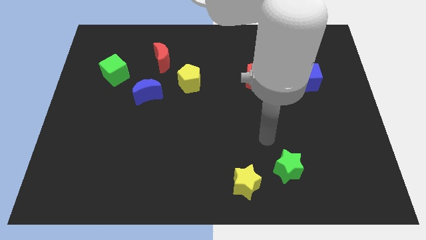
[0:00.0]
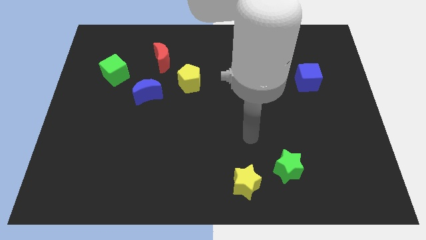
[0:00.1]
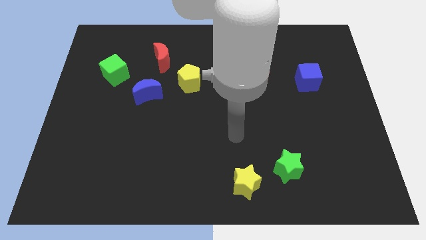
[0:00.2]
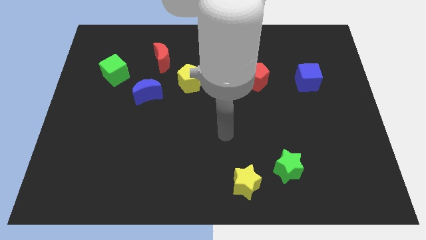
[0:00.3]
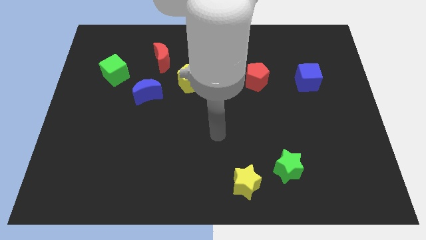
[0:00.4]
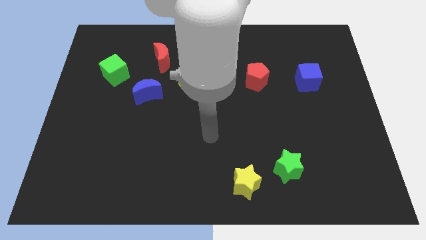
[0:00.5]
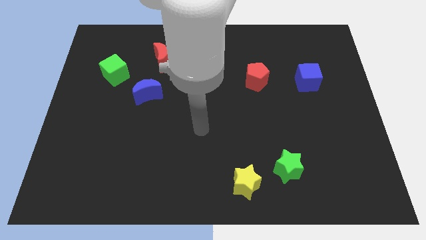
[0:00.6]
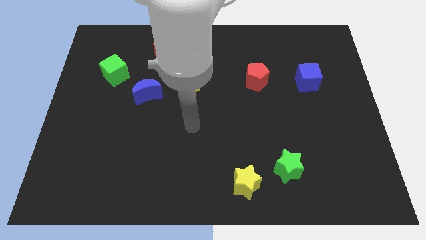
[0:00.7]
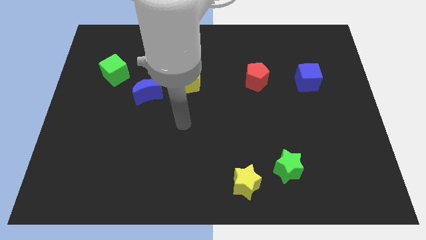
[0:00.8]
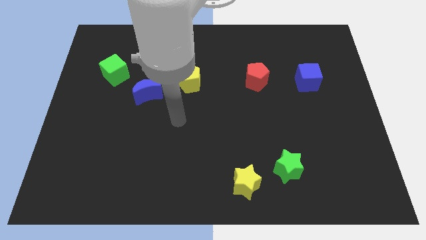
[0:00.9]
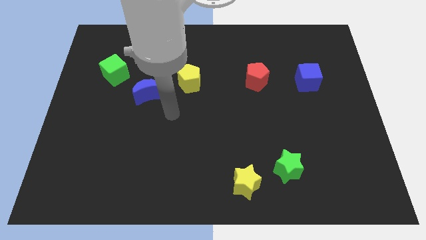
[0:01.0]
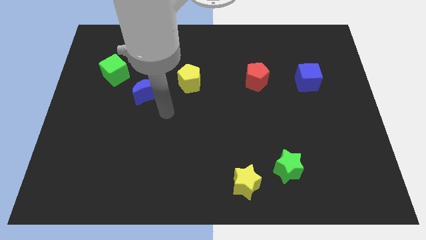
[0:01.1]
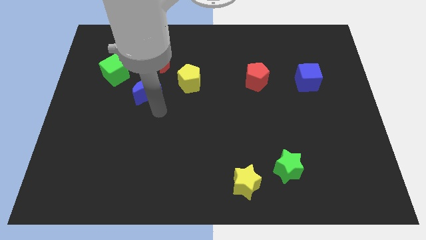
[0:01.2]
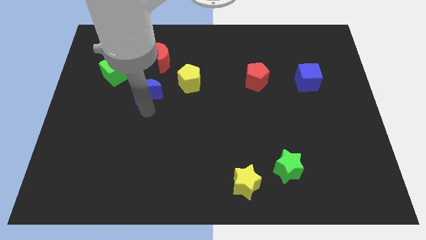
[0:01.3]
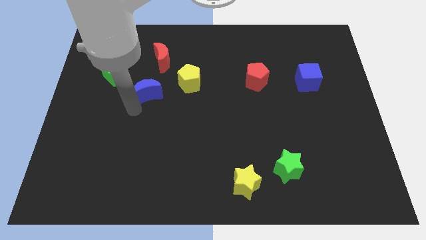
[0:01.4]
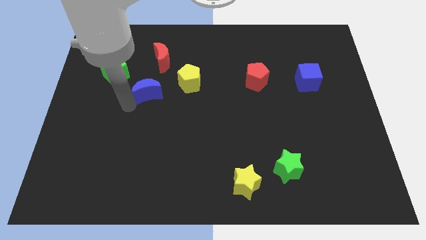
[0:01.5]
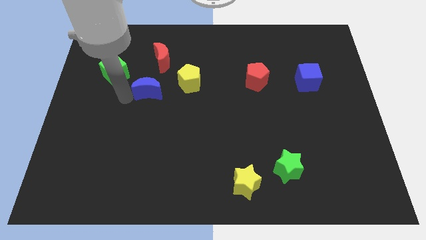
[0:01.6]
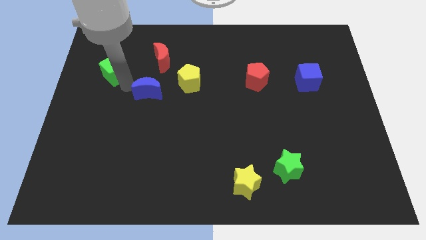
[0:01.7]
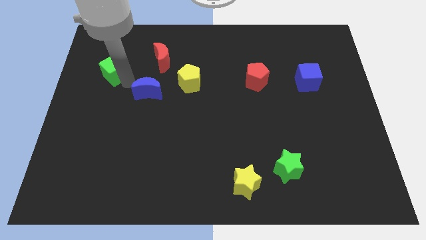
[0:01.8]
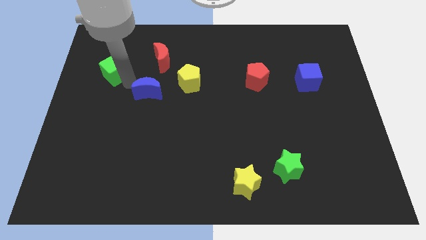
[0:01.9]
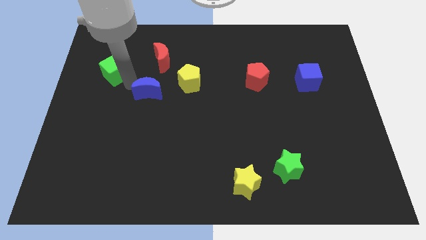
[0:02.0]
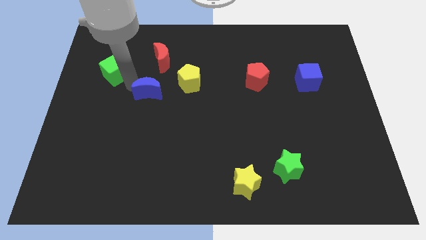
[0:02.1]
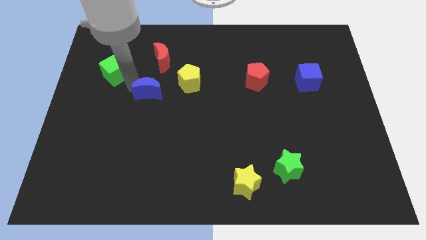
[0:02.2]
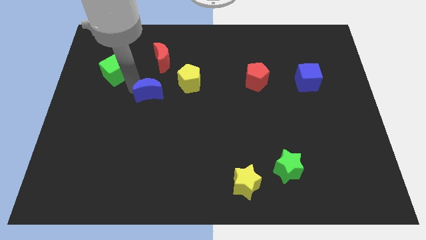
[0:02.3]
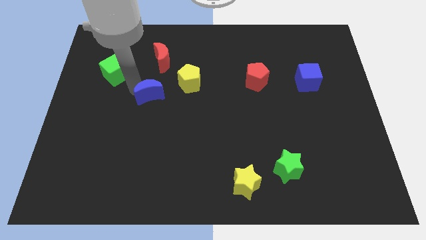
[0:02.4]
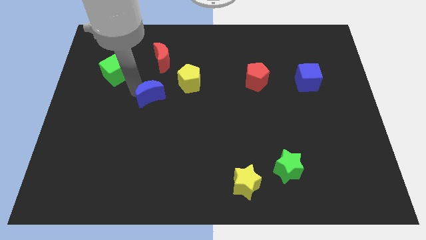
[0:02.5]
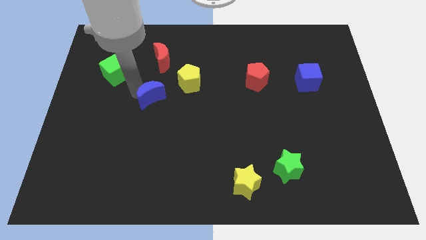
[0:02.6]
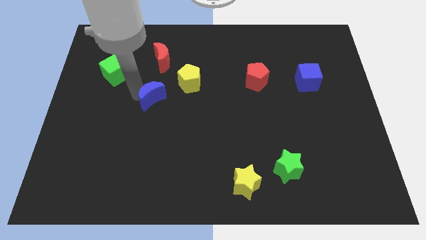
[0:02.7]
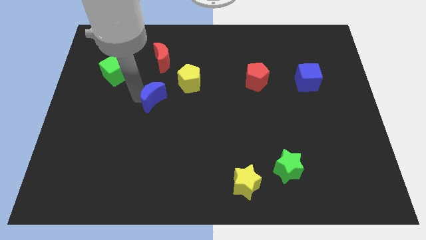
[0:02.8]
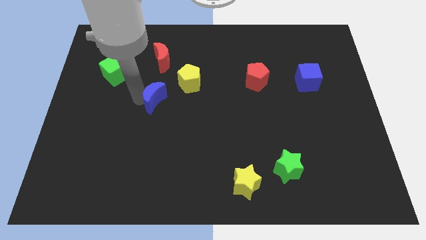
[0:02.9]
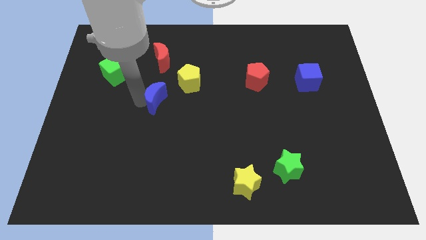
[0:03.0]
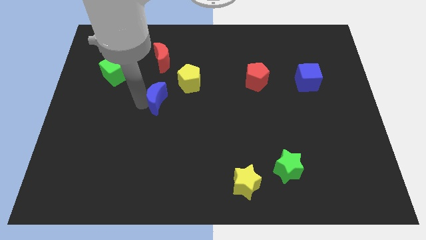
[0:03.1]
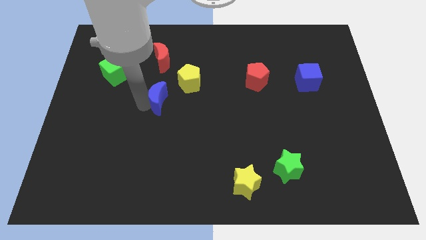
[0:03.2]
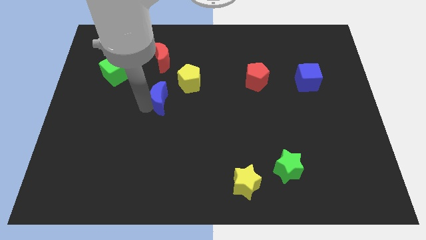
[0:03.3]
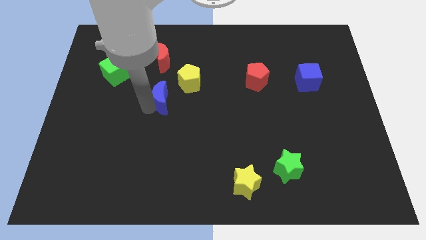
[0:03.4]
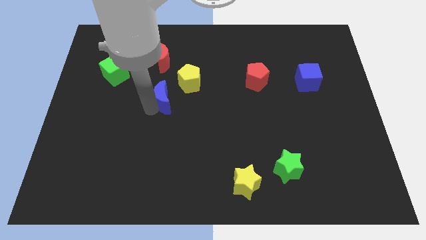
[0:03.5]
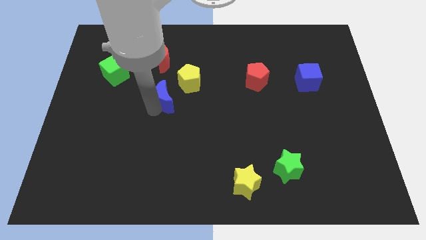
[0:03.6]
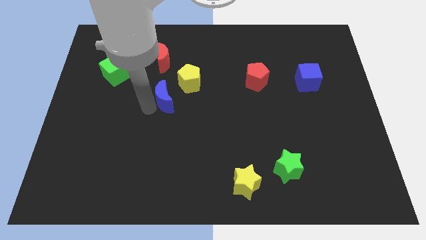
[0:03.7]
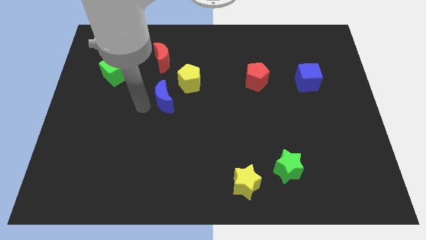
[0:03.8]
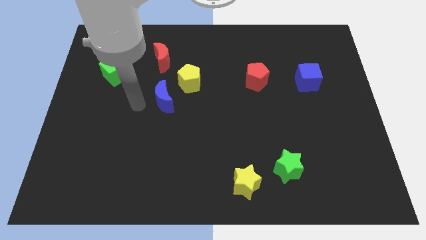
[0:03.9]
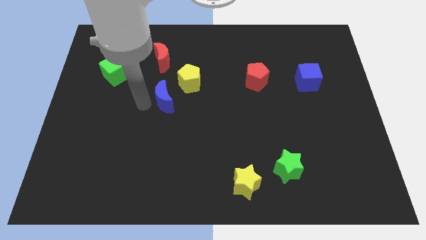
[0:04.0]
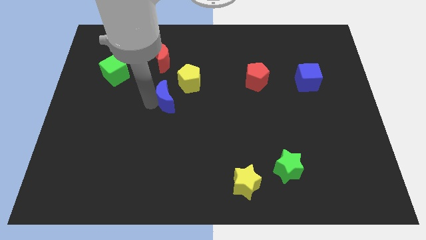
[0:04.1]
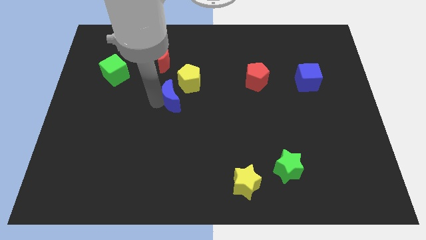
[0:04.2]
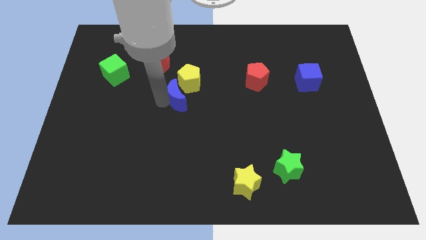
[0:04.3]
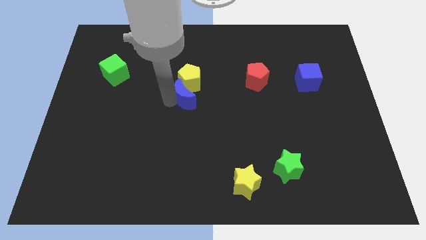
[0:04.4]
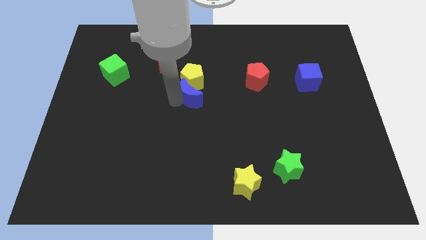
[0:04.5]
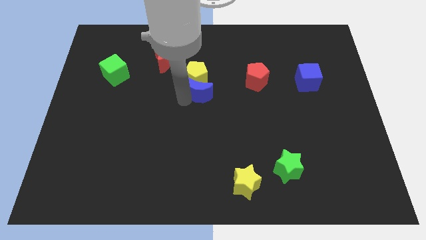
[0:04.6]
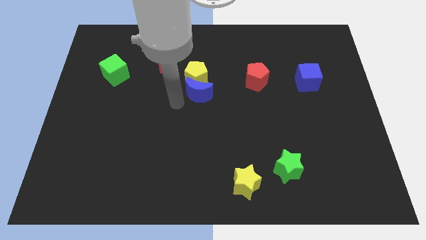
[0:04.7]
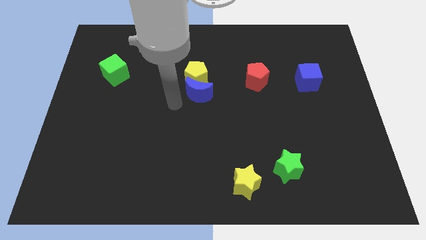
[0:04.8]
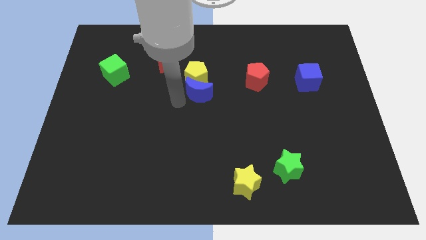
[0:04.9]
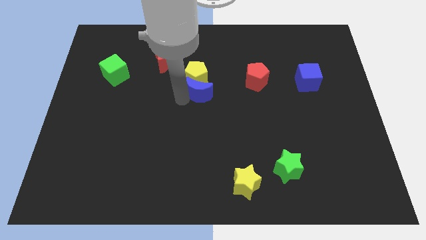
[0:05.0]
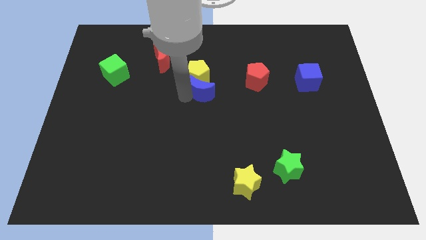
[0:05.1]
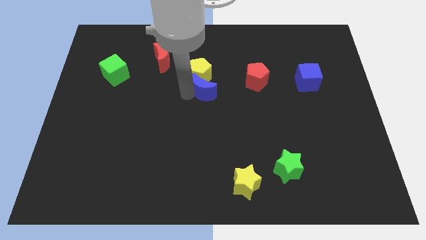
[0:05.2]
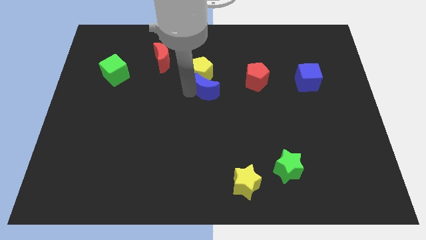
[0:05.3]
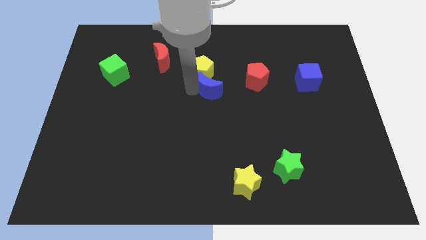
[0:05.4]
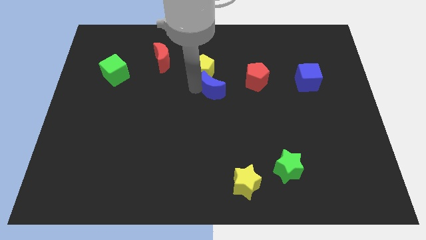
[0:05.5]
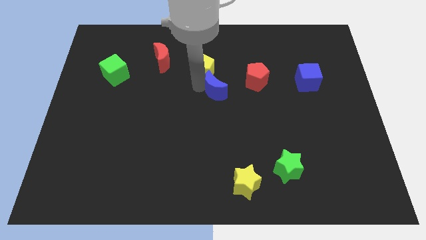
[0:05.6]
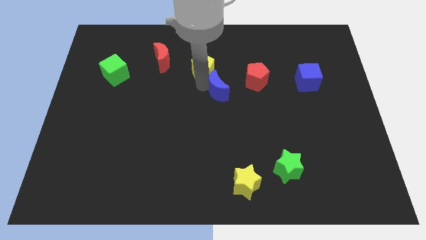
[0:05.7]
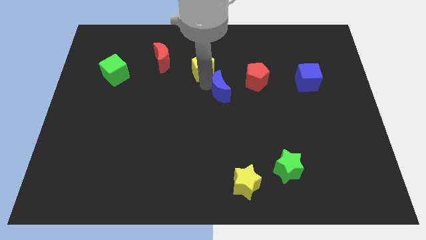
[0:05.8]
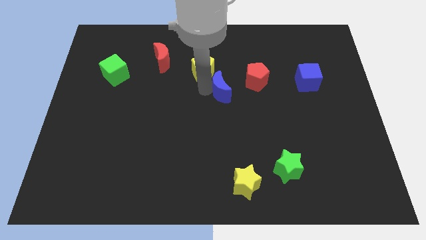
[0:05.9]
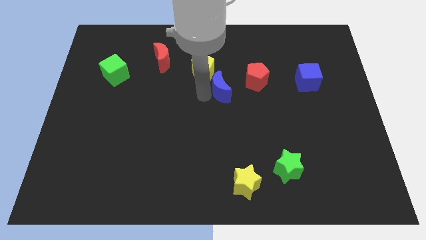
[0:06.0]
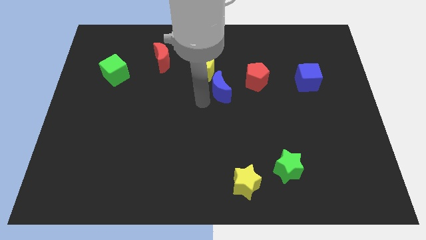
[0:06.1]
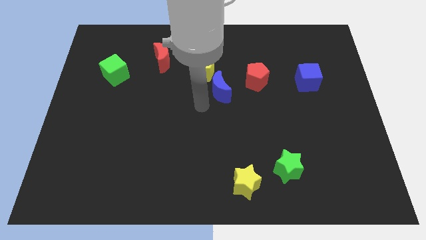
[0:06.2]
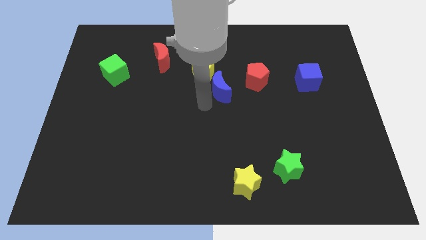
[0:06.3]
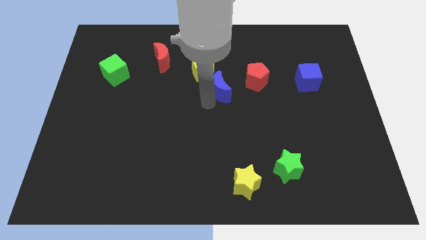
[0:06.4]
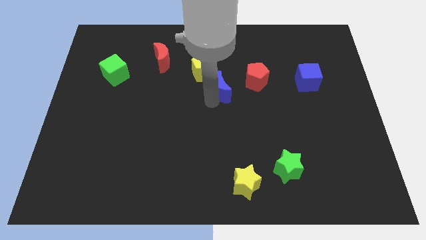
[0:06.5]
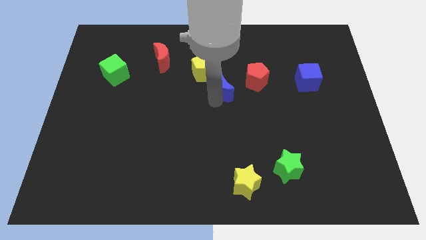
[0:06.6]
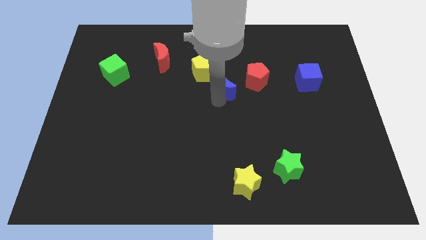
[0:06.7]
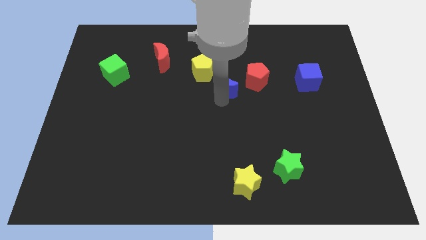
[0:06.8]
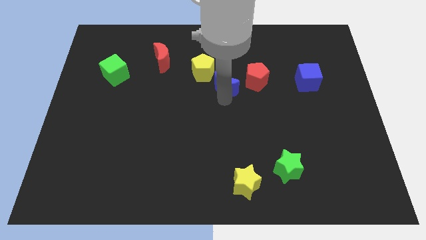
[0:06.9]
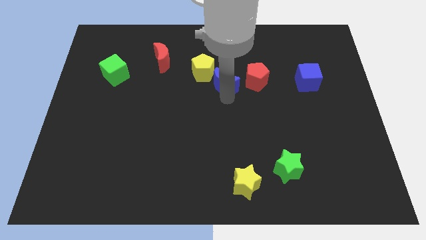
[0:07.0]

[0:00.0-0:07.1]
push the blue moon to the right side of the yellow pentagon
